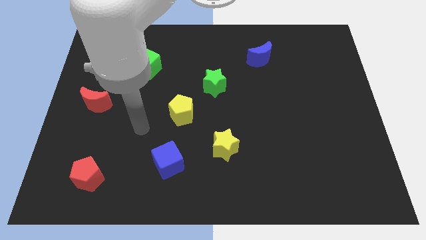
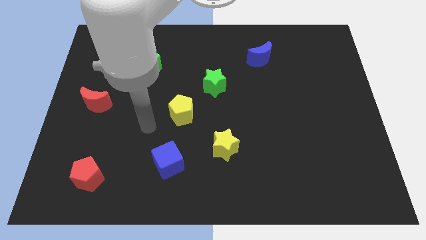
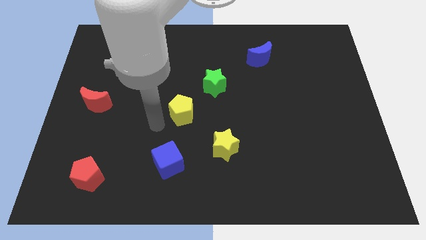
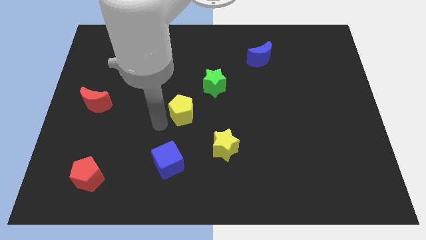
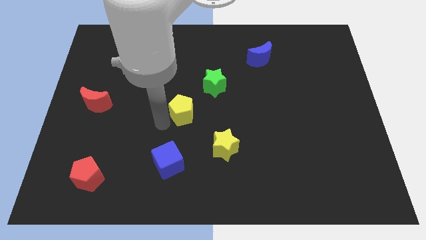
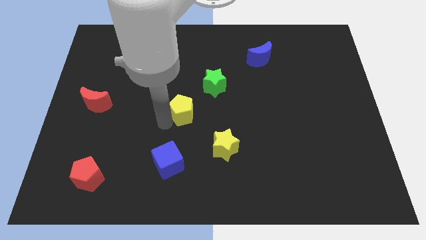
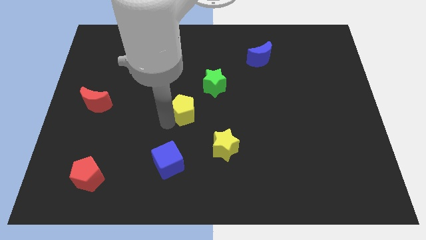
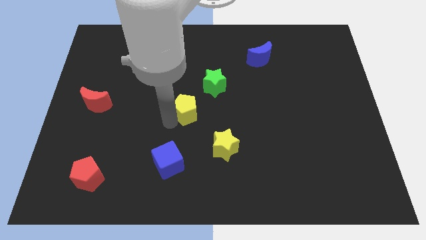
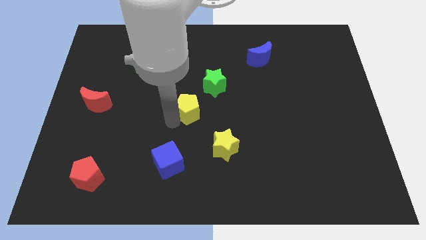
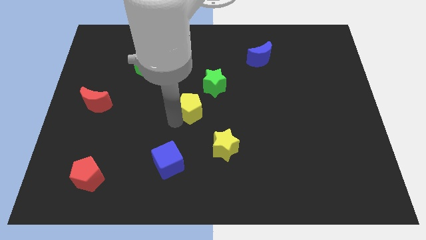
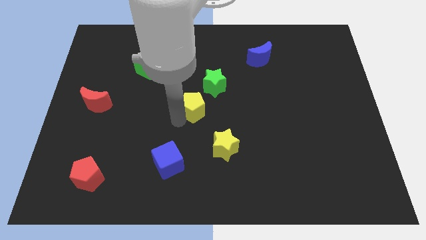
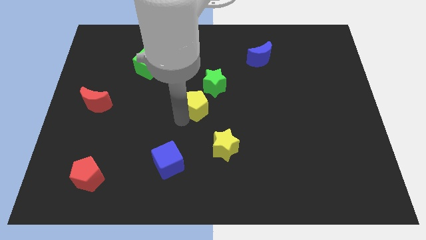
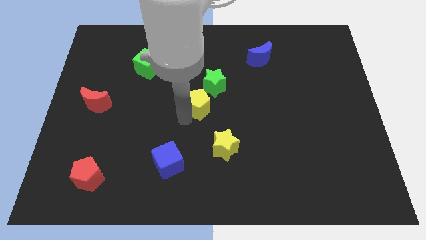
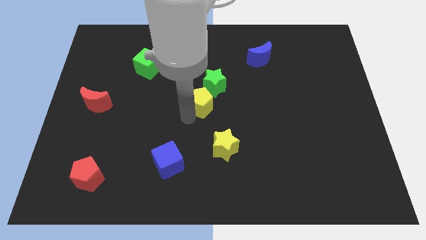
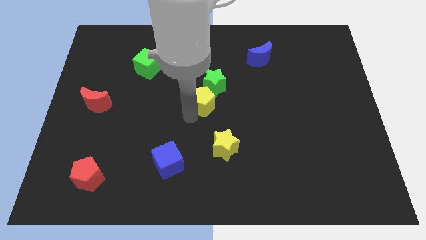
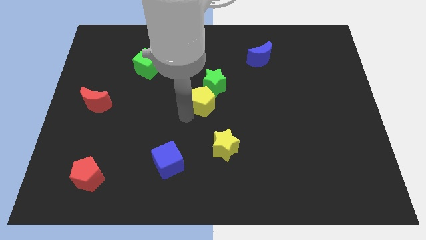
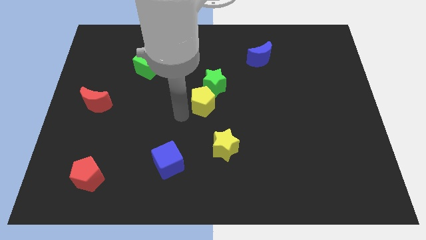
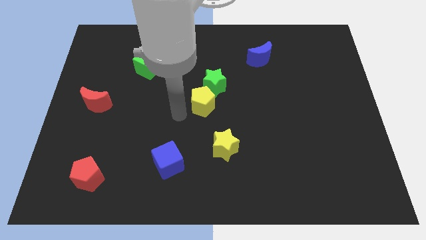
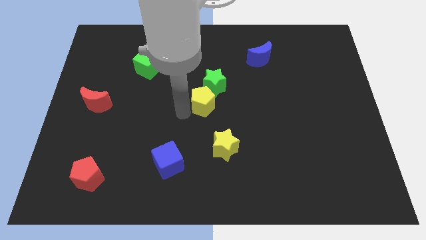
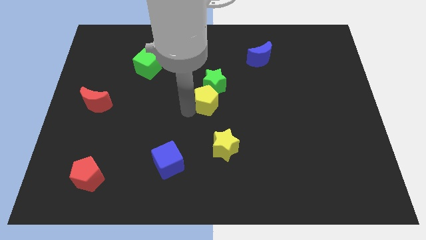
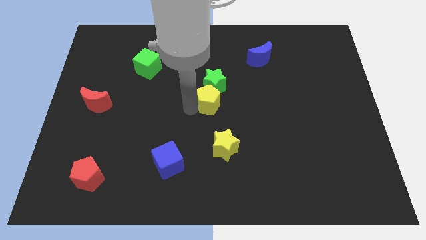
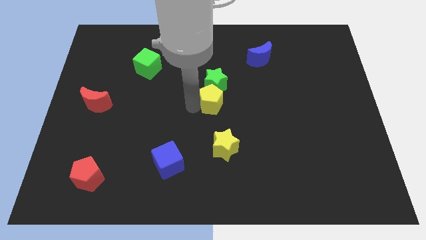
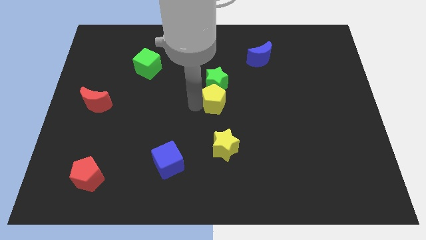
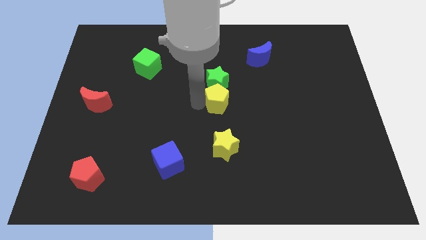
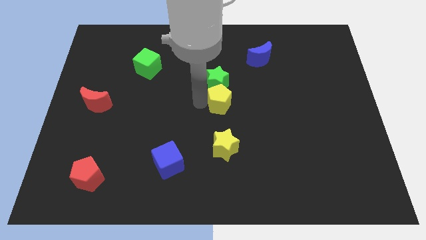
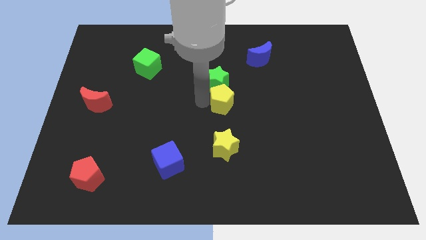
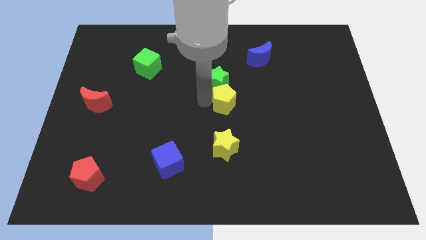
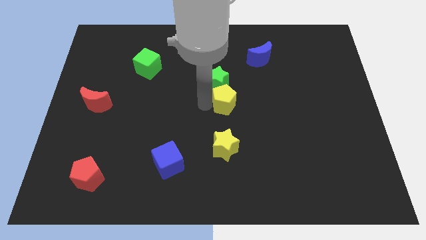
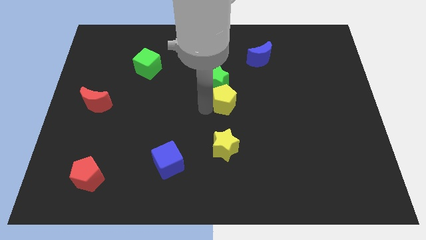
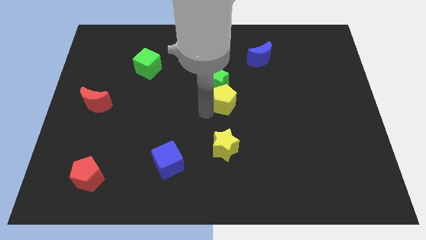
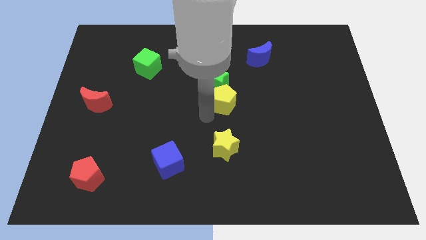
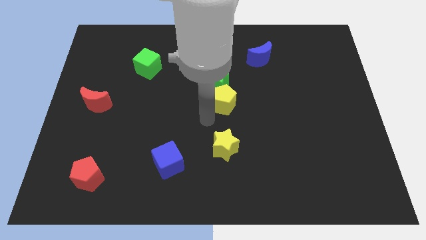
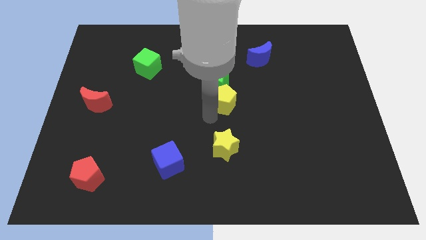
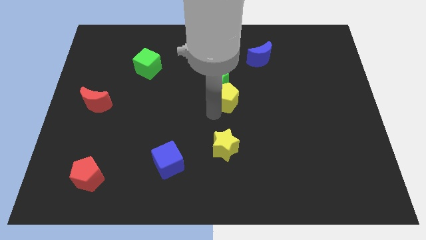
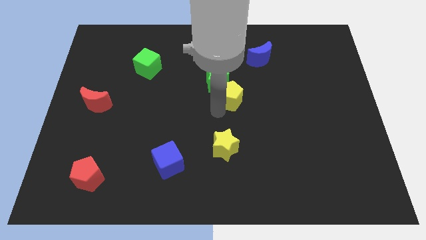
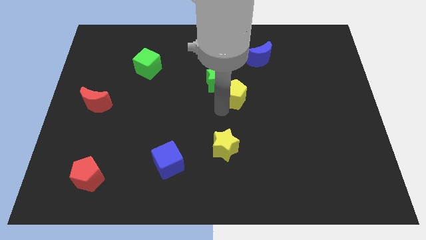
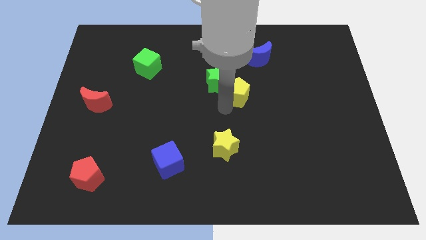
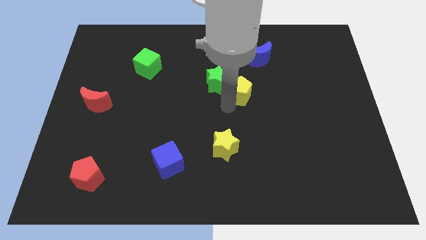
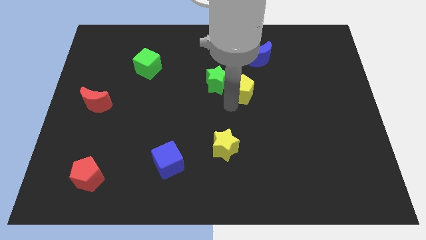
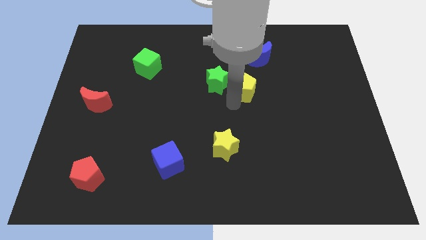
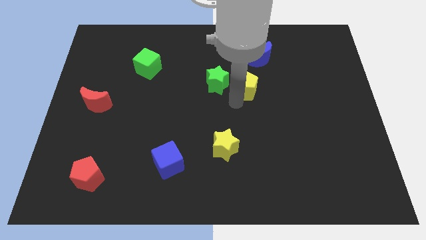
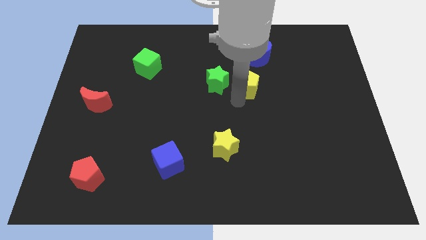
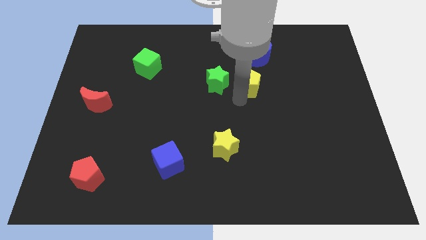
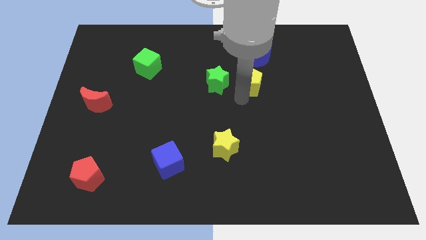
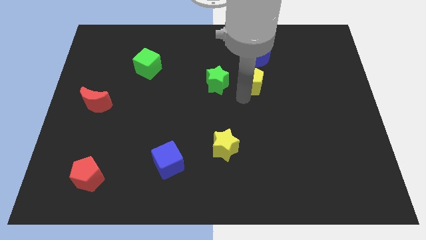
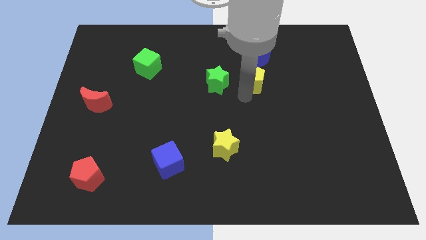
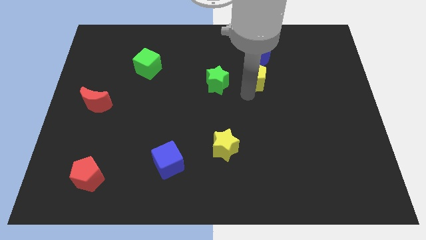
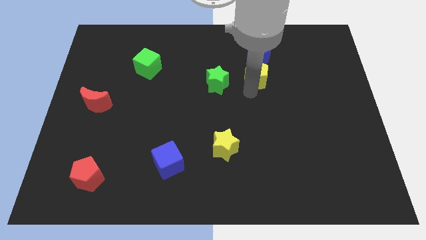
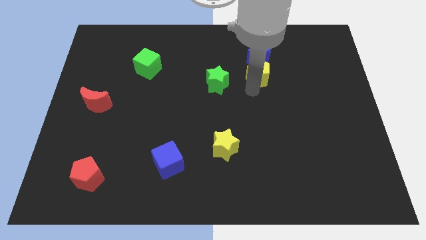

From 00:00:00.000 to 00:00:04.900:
put the yellow pentagon close to the blue moon

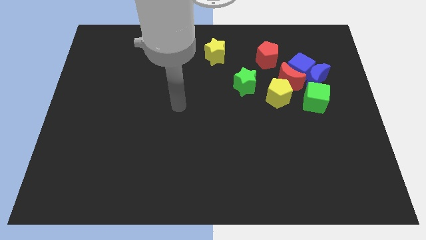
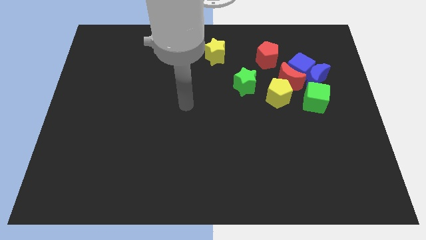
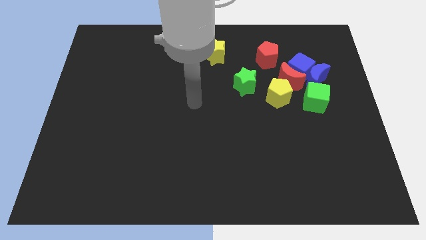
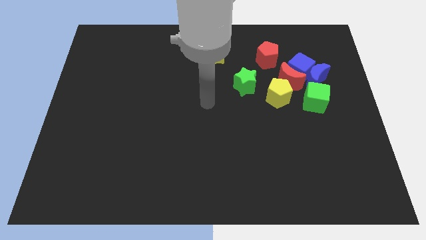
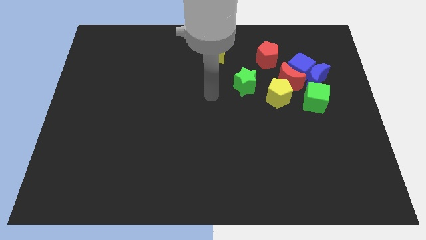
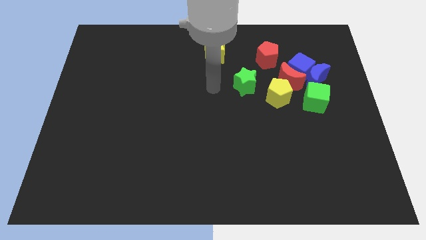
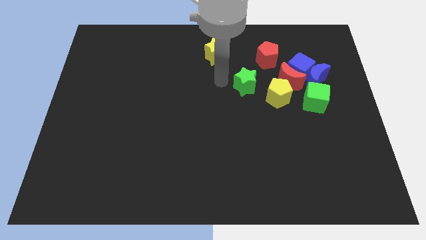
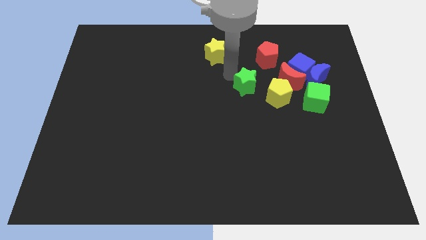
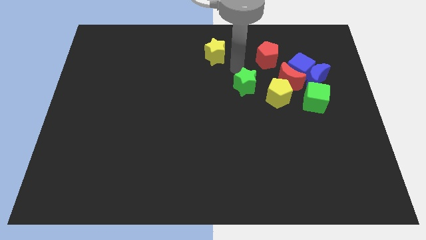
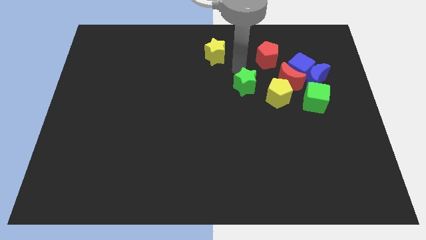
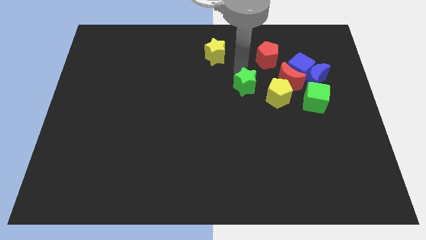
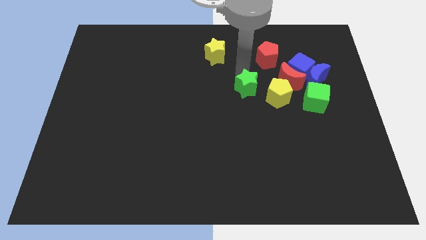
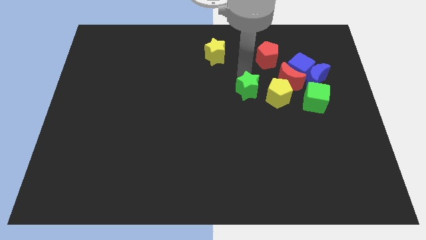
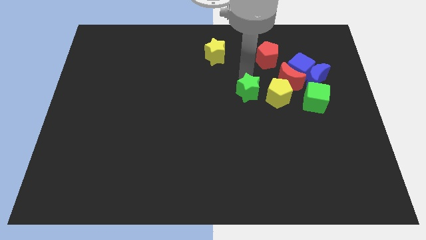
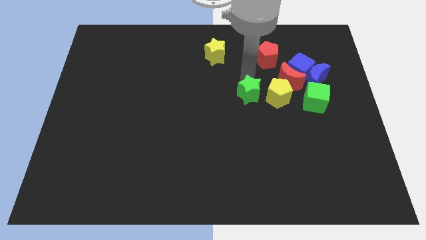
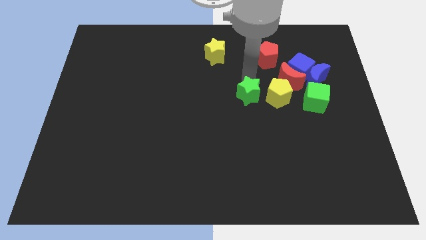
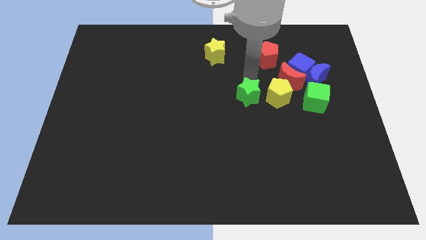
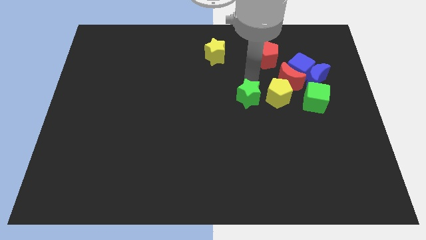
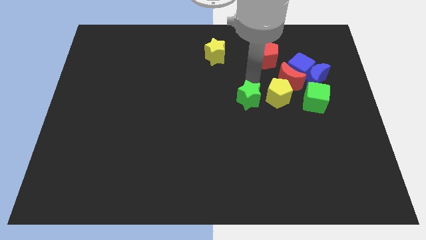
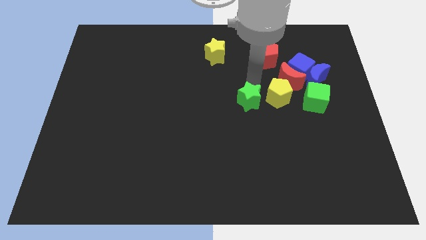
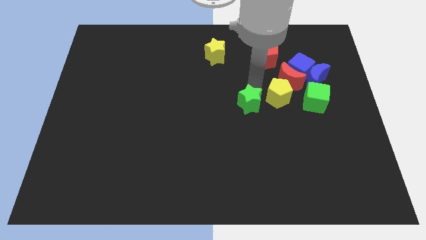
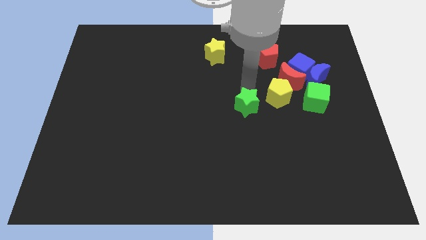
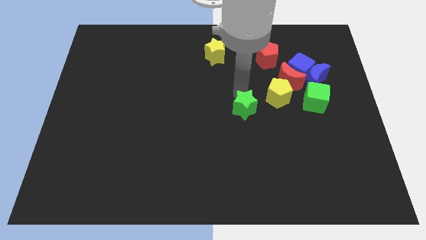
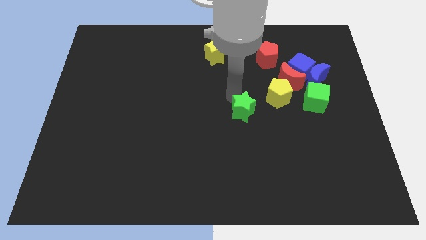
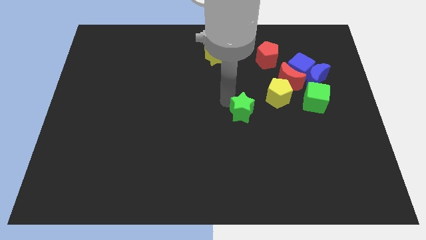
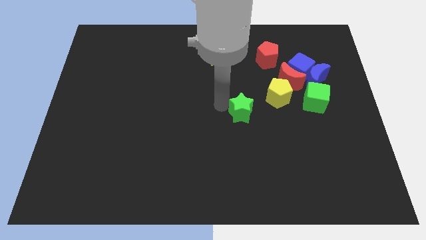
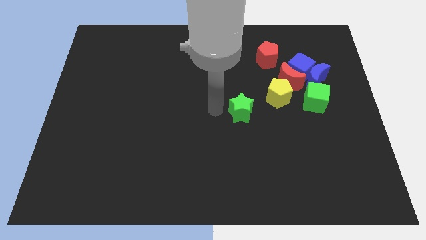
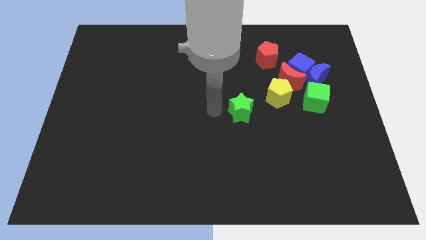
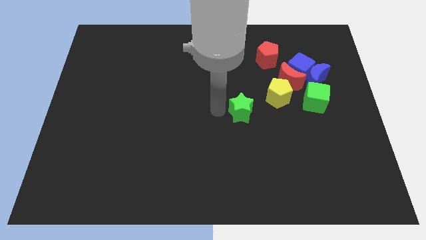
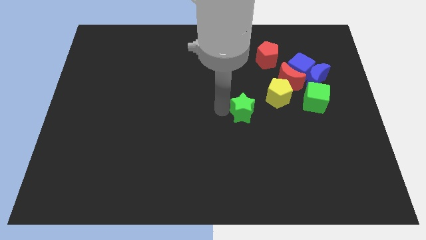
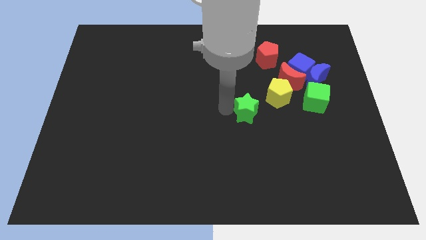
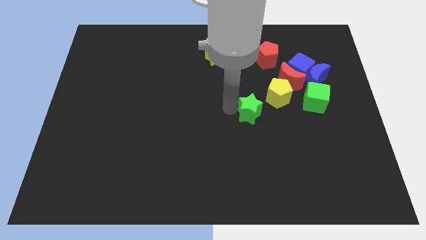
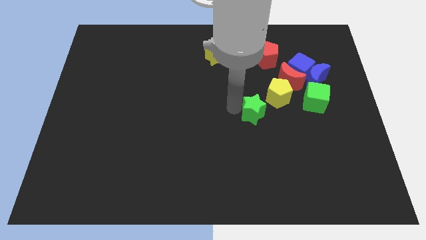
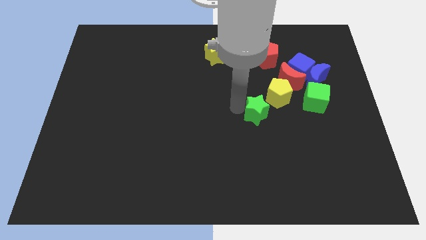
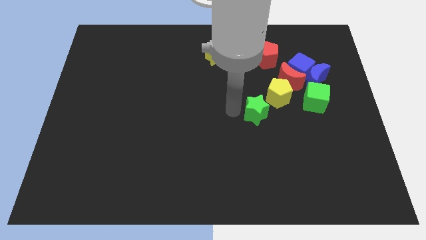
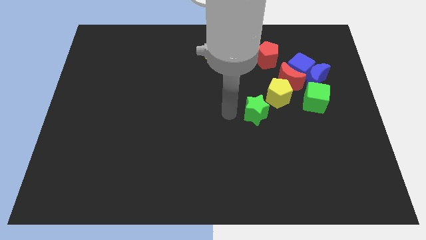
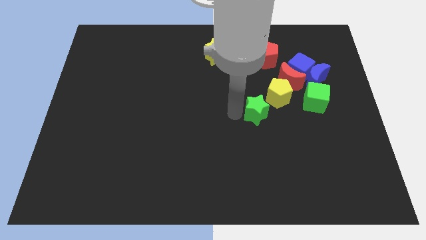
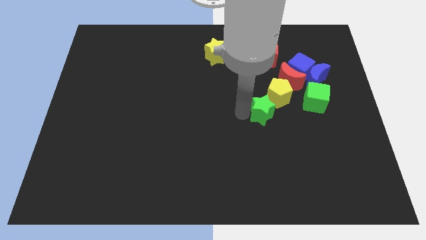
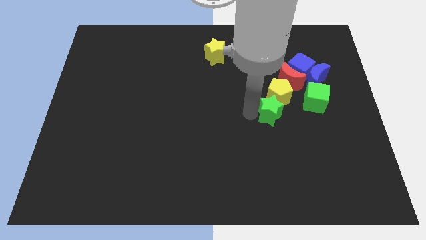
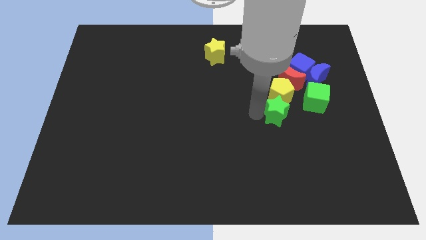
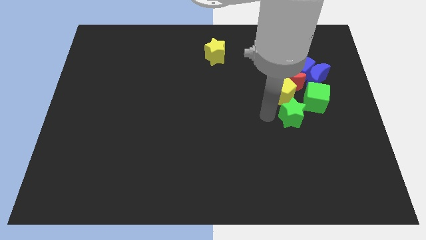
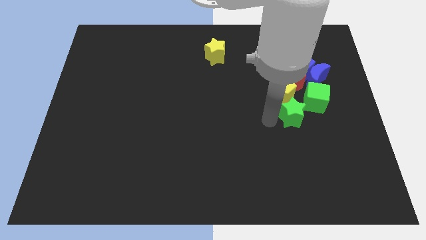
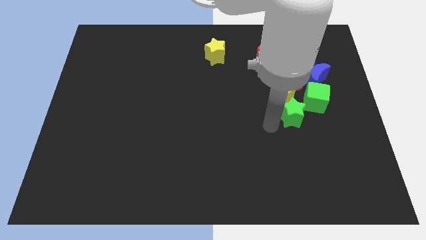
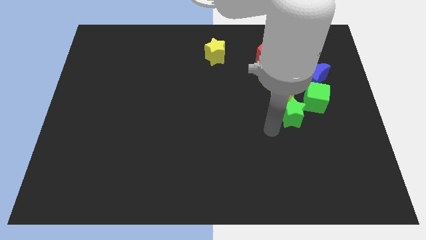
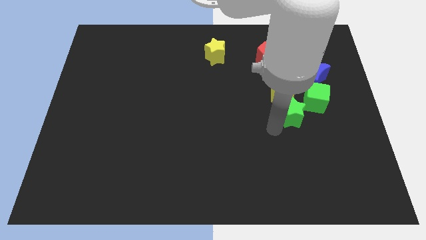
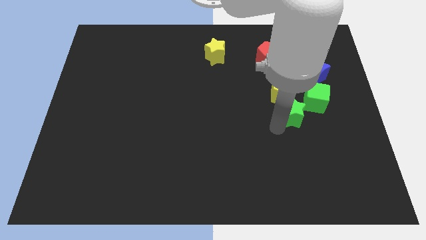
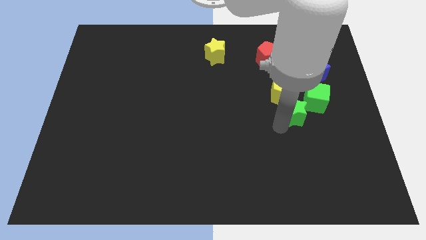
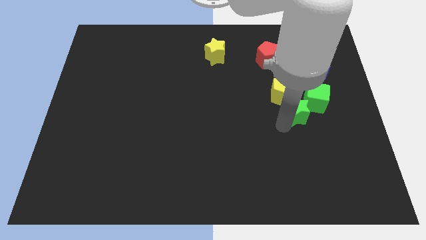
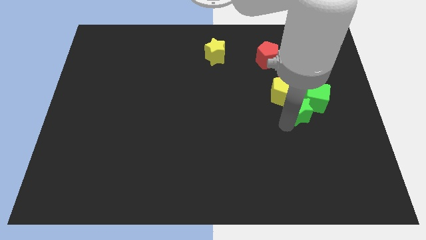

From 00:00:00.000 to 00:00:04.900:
slide the green star to the green cube
